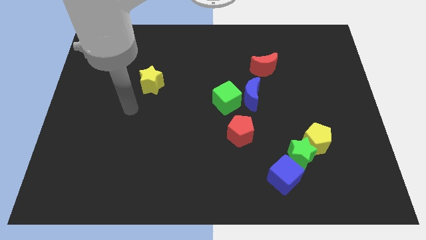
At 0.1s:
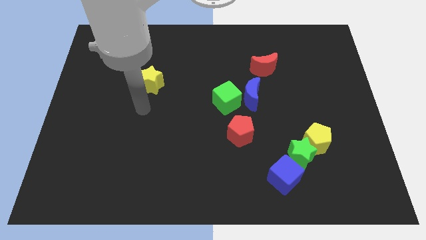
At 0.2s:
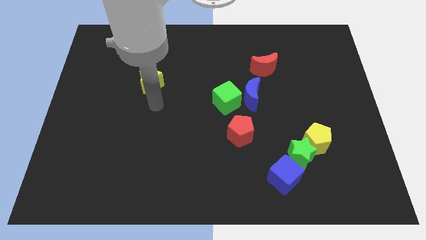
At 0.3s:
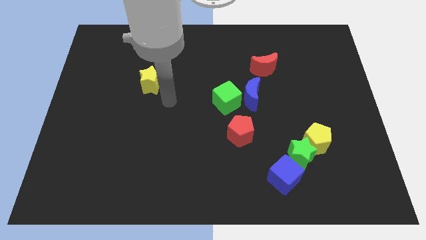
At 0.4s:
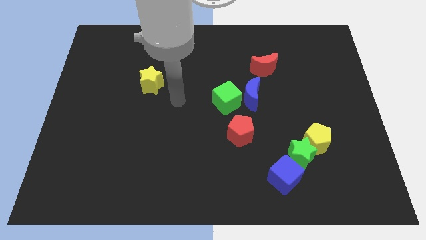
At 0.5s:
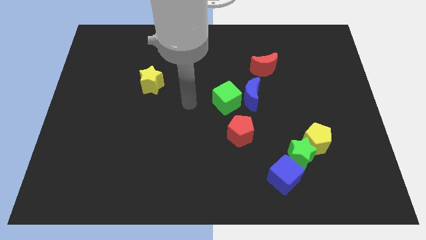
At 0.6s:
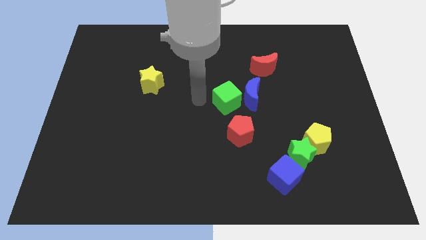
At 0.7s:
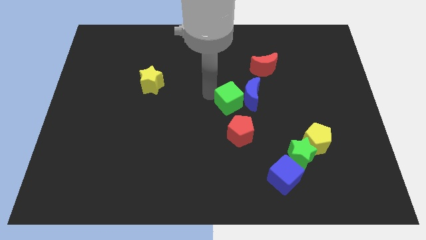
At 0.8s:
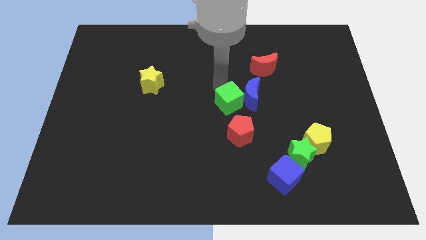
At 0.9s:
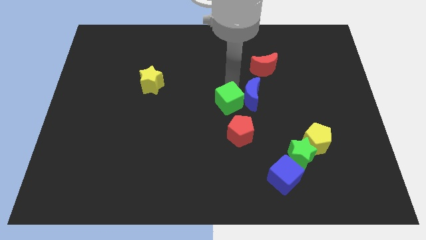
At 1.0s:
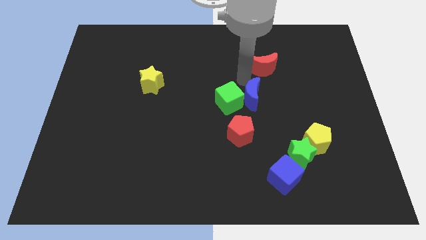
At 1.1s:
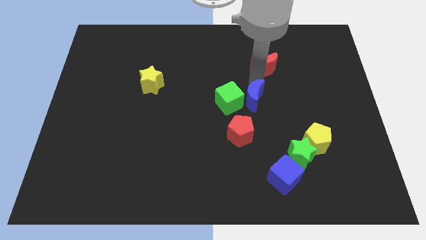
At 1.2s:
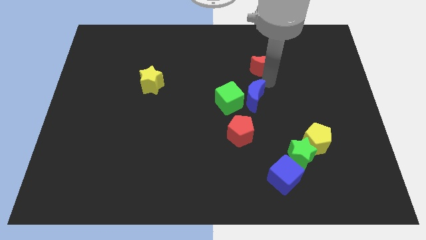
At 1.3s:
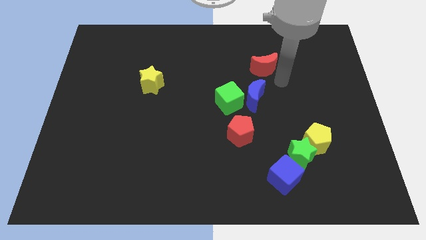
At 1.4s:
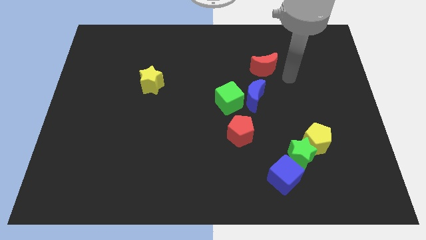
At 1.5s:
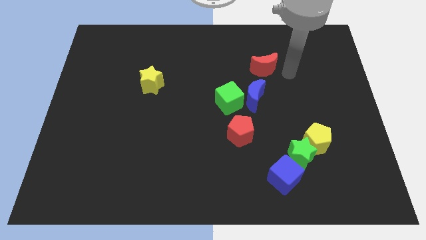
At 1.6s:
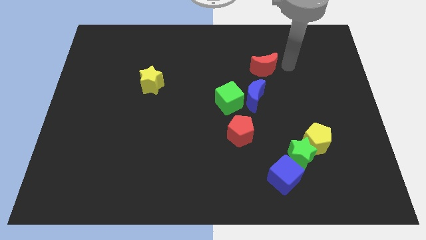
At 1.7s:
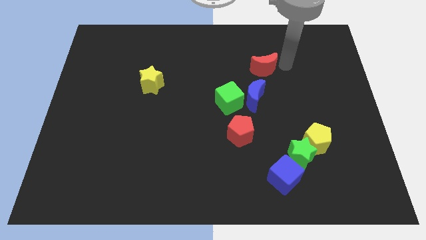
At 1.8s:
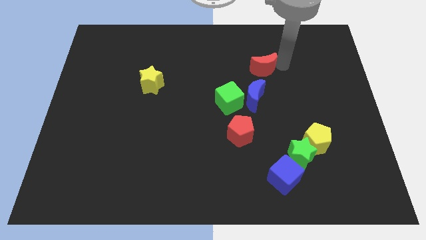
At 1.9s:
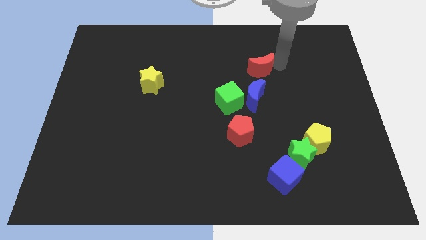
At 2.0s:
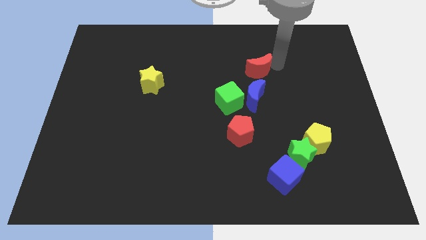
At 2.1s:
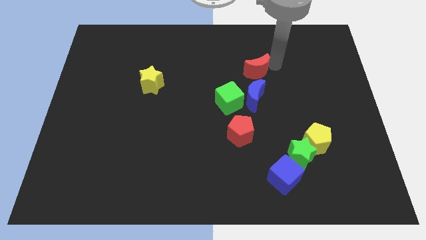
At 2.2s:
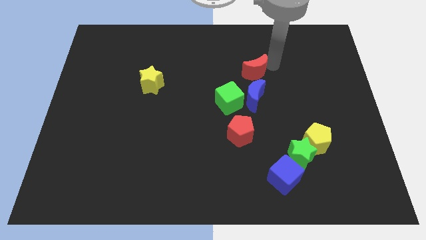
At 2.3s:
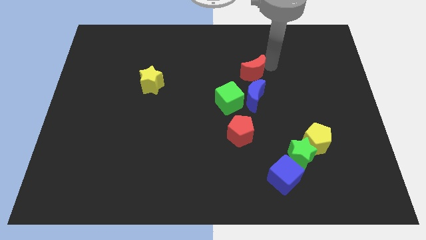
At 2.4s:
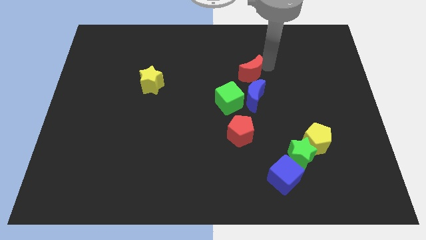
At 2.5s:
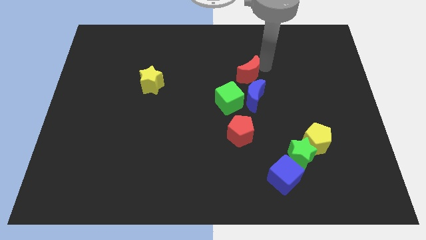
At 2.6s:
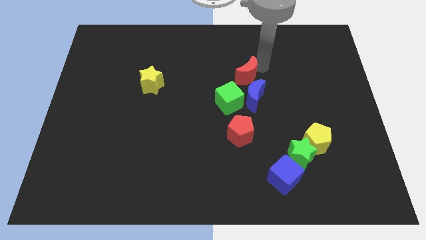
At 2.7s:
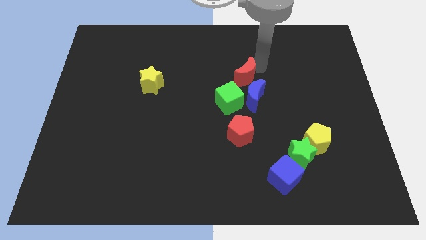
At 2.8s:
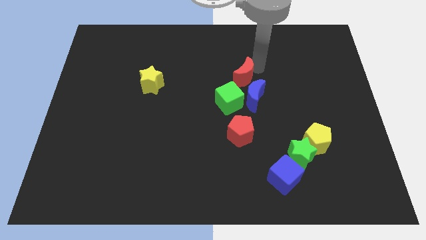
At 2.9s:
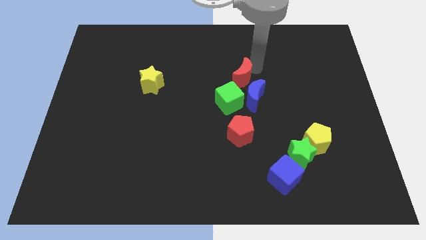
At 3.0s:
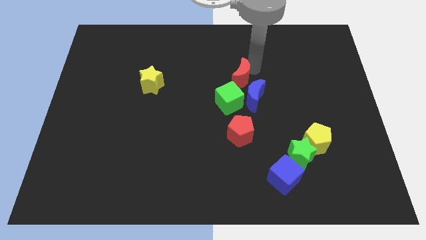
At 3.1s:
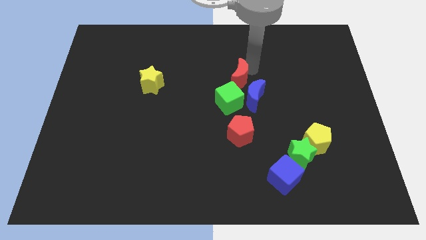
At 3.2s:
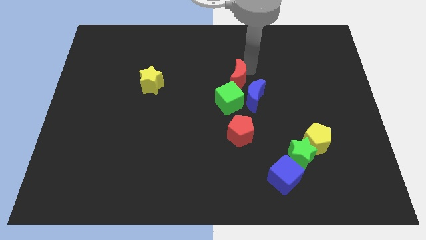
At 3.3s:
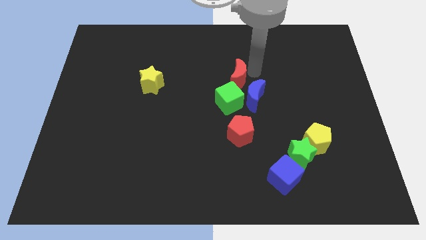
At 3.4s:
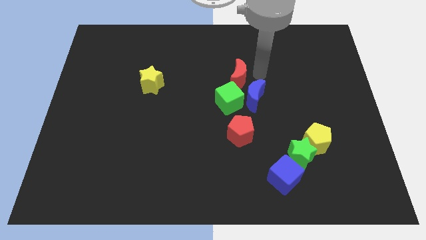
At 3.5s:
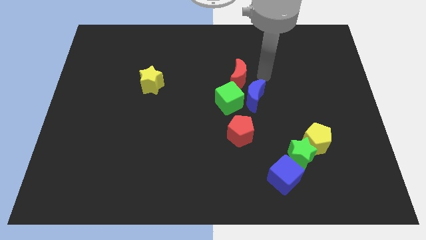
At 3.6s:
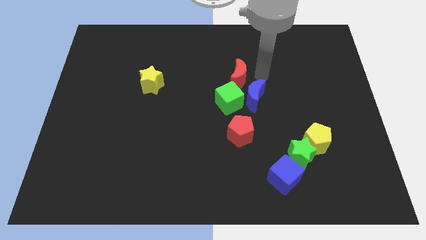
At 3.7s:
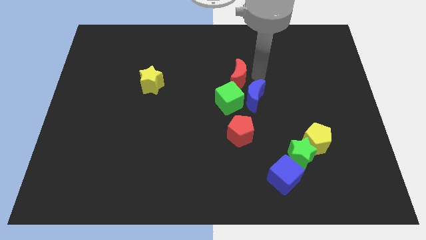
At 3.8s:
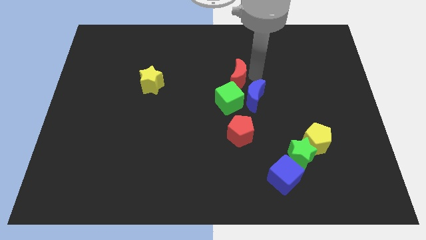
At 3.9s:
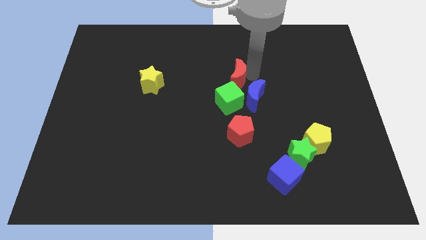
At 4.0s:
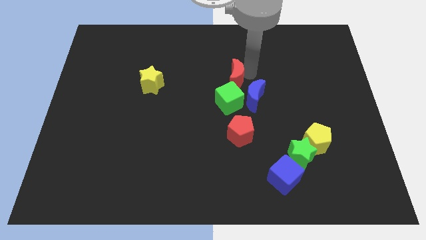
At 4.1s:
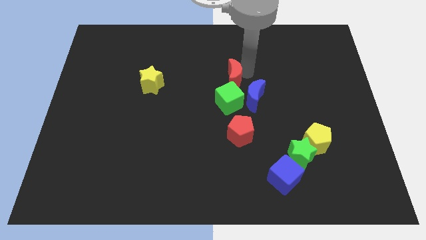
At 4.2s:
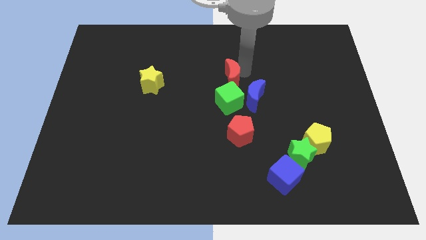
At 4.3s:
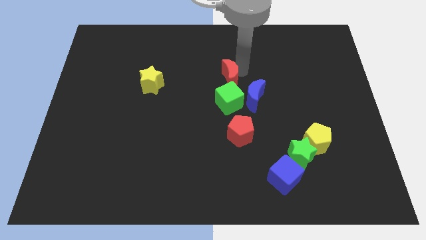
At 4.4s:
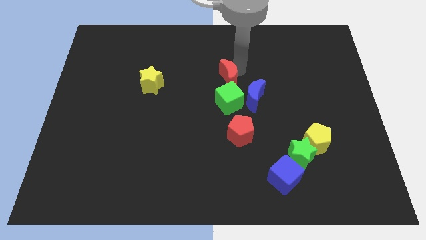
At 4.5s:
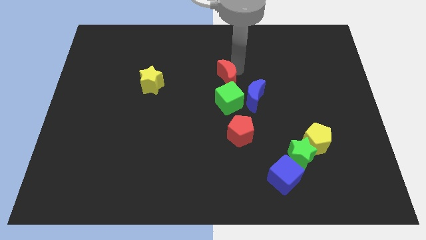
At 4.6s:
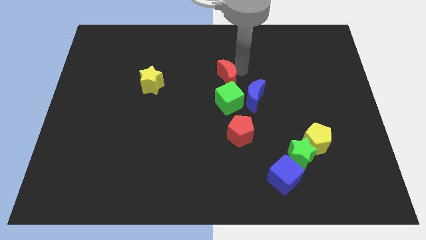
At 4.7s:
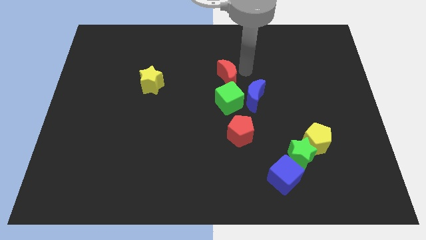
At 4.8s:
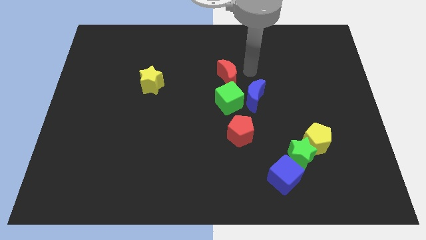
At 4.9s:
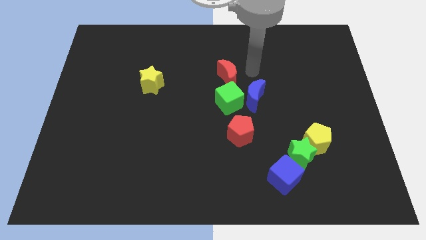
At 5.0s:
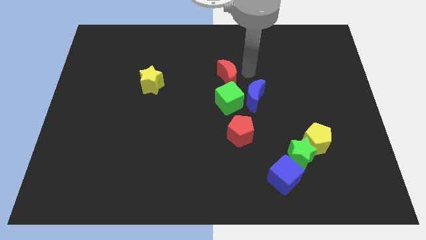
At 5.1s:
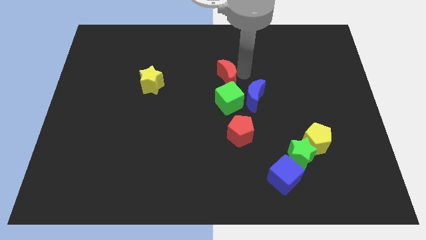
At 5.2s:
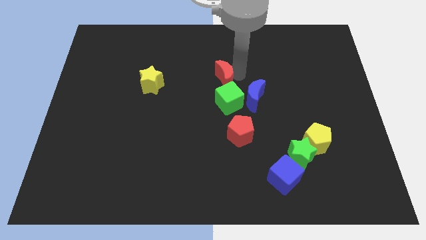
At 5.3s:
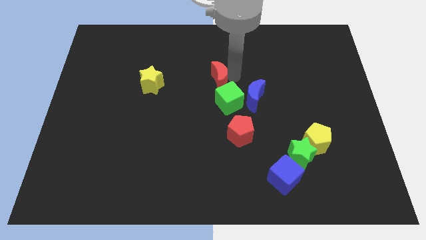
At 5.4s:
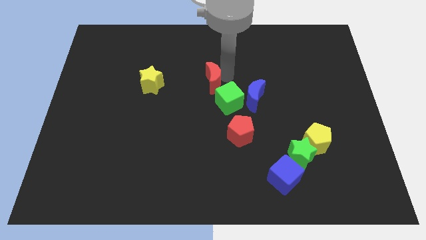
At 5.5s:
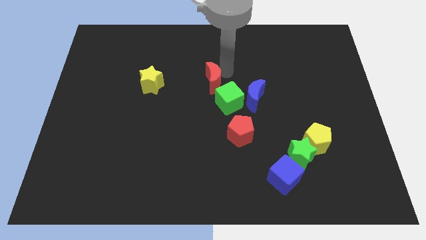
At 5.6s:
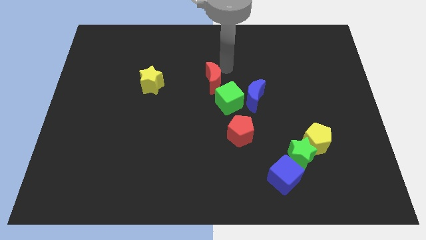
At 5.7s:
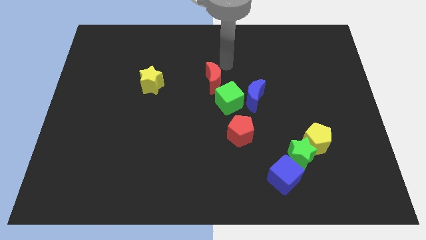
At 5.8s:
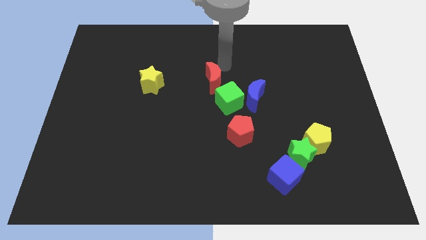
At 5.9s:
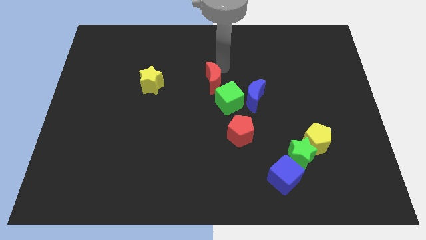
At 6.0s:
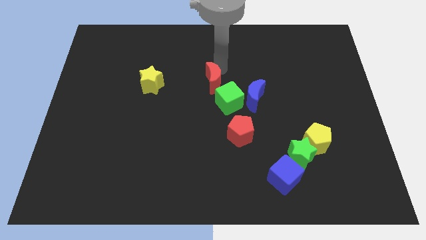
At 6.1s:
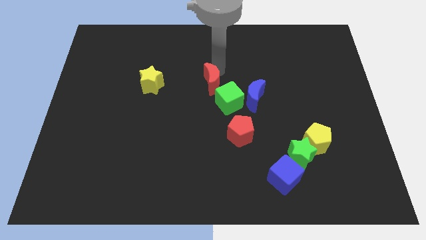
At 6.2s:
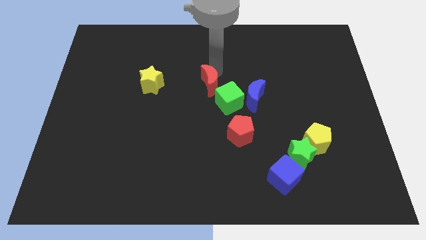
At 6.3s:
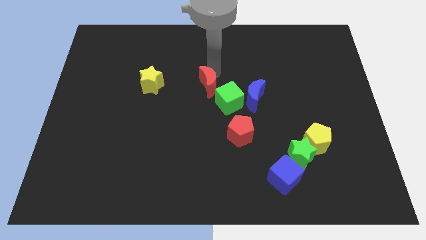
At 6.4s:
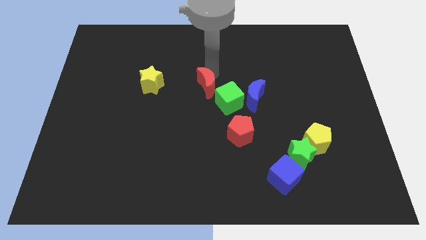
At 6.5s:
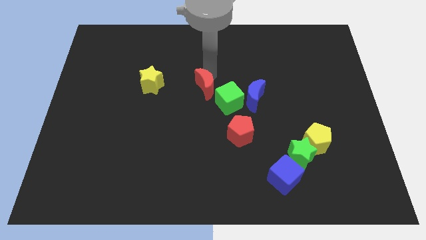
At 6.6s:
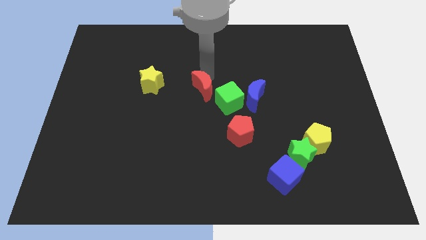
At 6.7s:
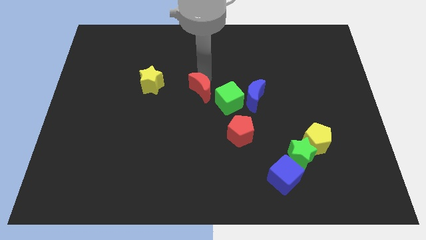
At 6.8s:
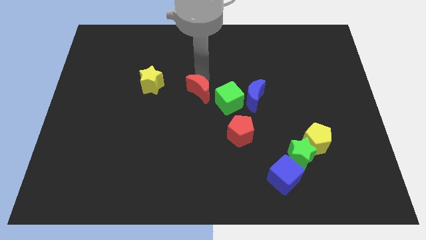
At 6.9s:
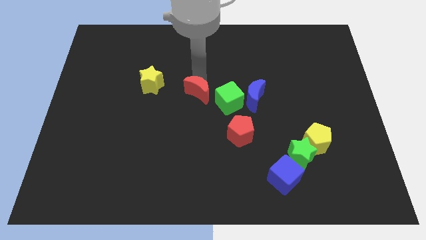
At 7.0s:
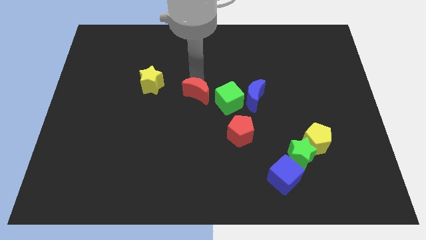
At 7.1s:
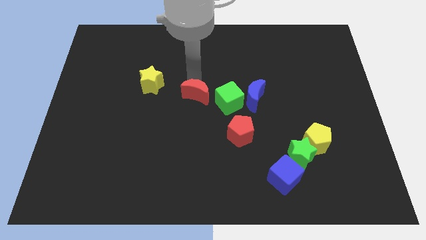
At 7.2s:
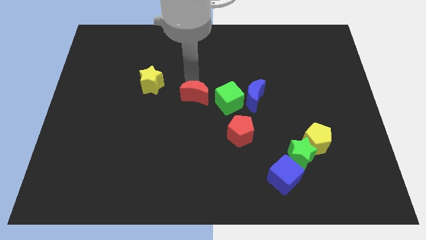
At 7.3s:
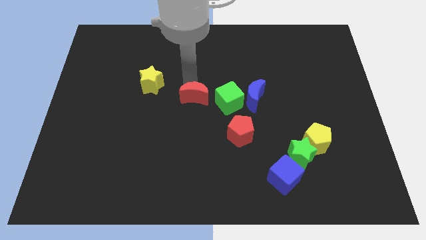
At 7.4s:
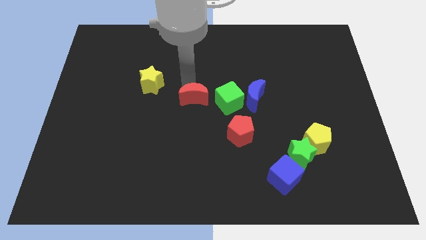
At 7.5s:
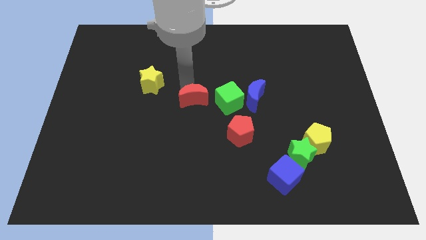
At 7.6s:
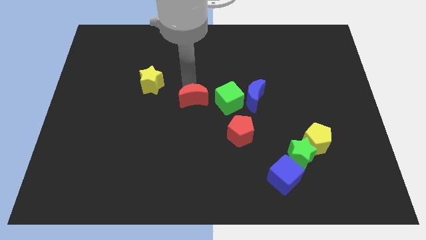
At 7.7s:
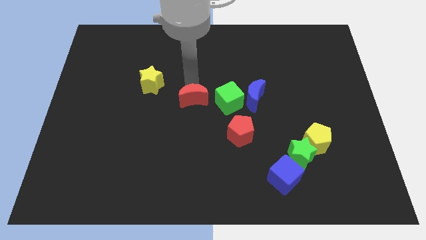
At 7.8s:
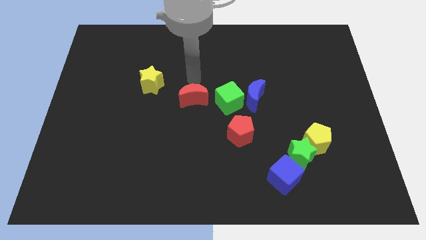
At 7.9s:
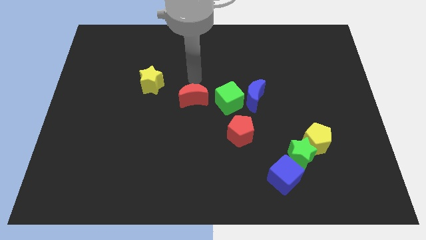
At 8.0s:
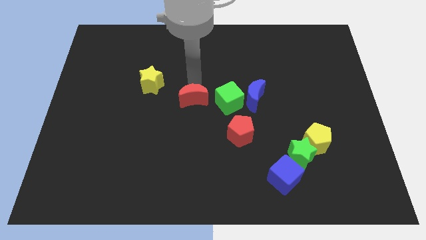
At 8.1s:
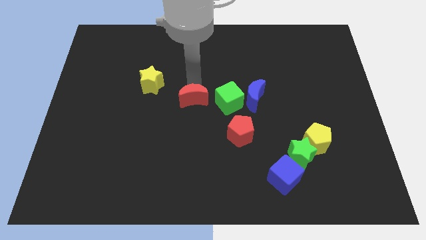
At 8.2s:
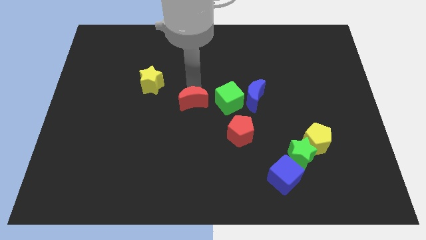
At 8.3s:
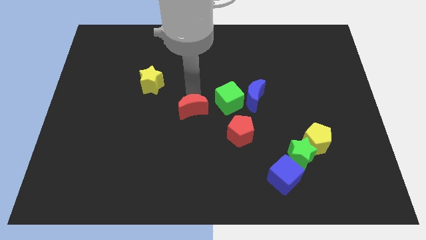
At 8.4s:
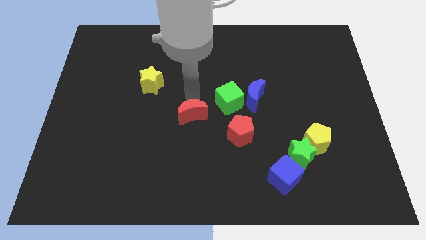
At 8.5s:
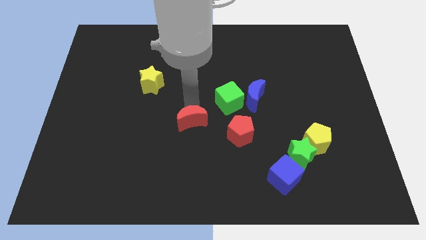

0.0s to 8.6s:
slide the red moon to the left side of the red pentagon
